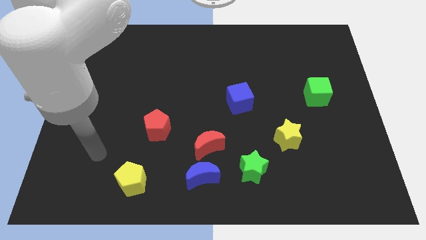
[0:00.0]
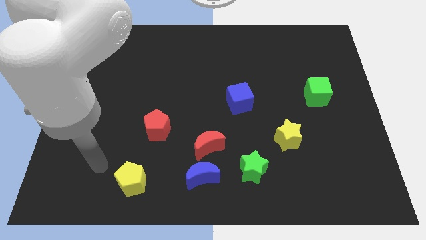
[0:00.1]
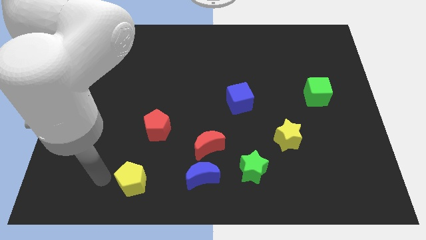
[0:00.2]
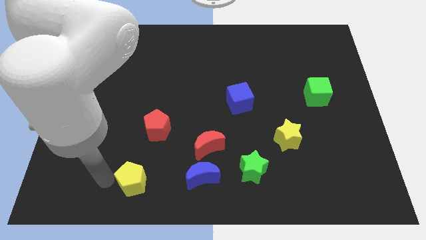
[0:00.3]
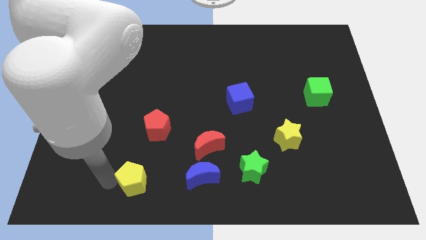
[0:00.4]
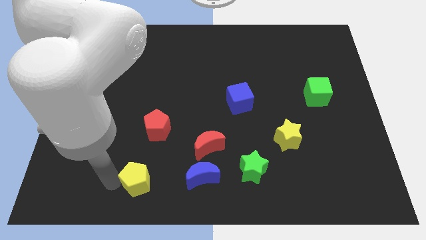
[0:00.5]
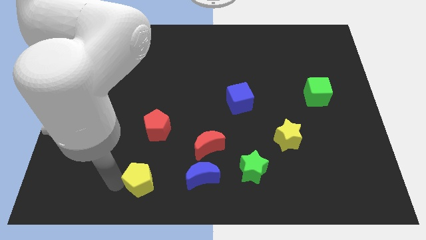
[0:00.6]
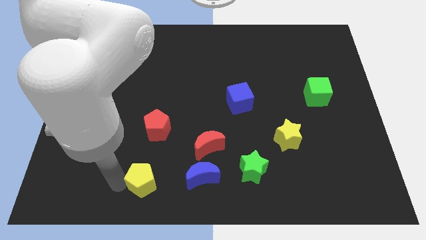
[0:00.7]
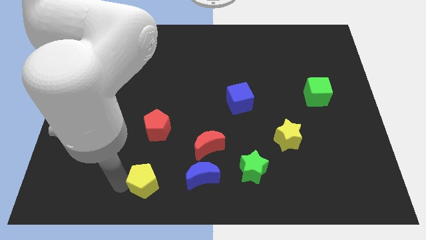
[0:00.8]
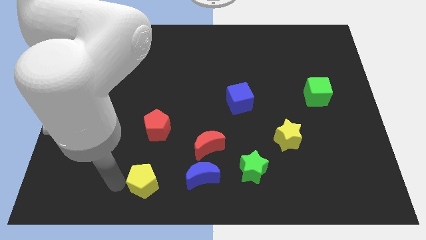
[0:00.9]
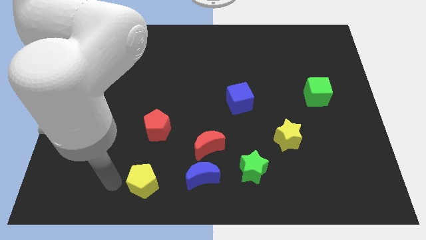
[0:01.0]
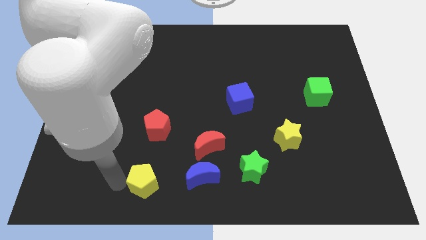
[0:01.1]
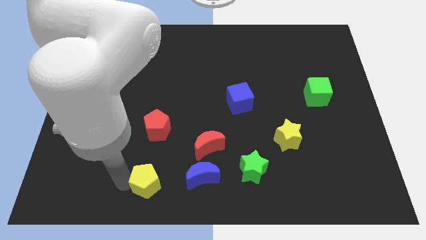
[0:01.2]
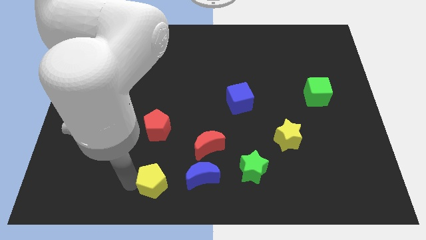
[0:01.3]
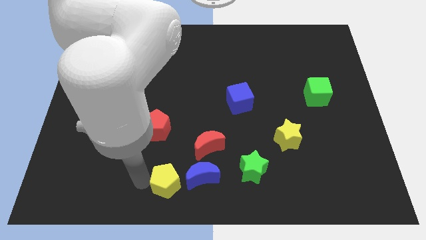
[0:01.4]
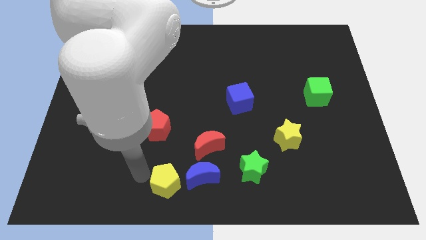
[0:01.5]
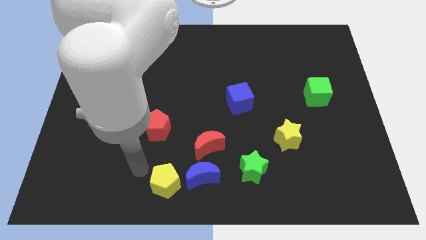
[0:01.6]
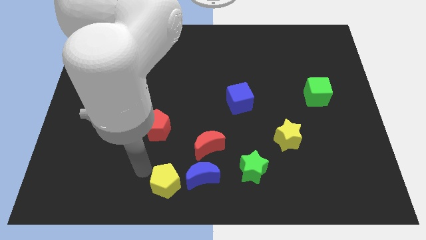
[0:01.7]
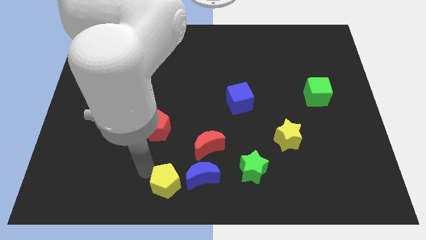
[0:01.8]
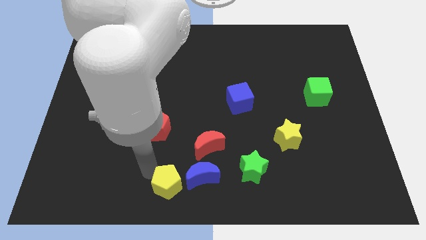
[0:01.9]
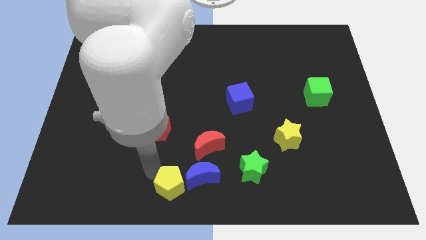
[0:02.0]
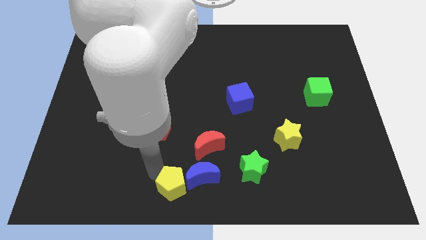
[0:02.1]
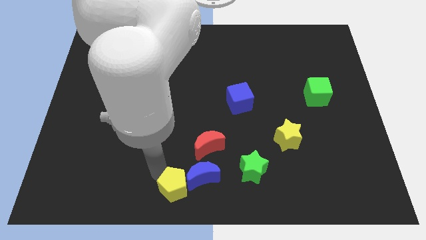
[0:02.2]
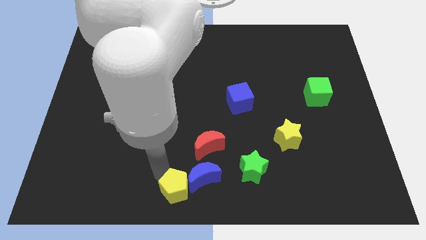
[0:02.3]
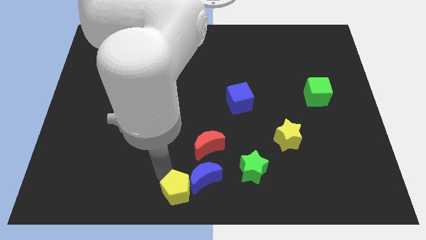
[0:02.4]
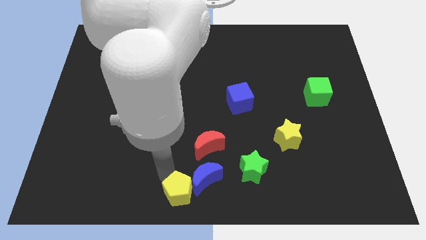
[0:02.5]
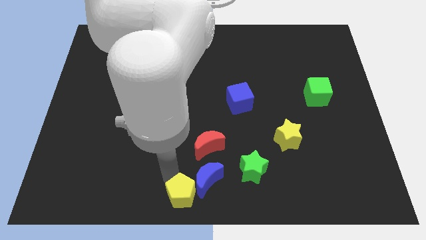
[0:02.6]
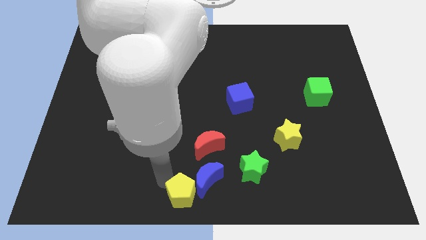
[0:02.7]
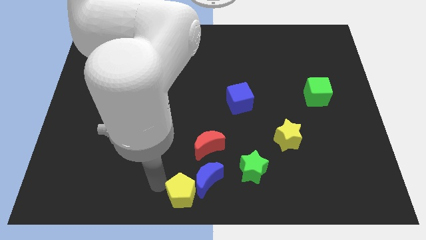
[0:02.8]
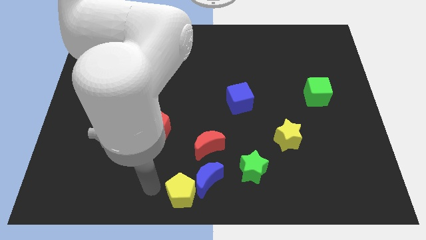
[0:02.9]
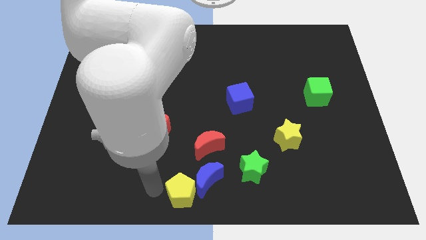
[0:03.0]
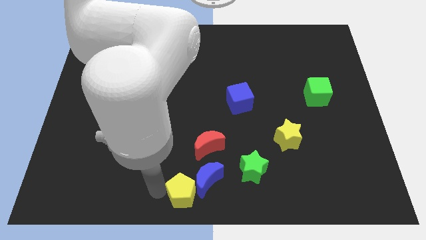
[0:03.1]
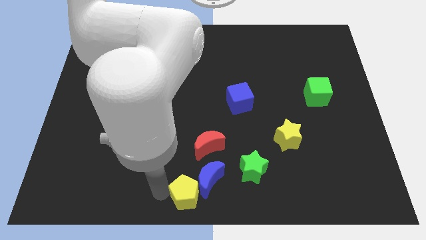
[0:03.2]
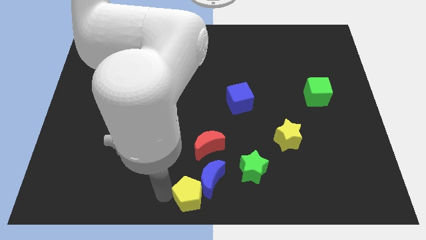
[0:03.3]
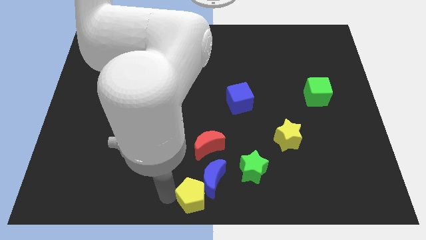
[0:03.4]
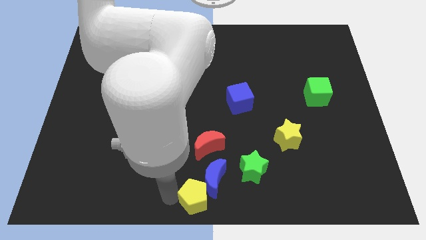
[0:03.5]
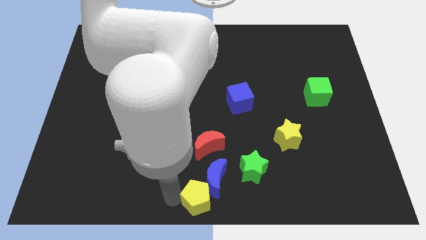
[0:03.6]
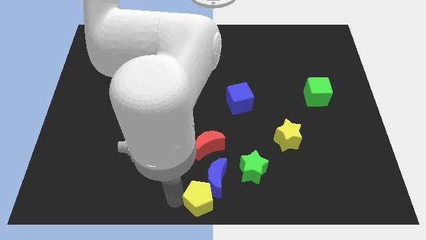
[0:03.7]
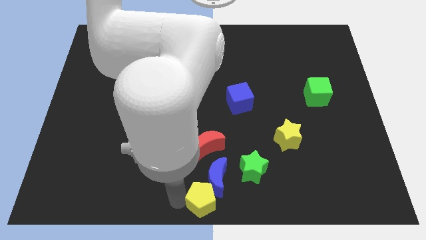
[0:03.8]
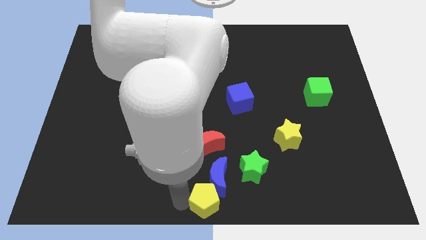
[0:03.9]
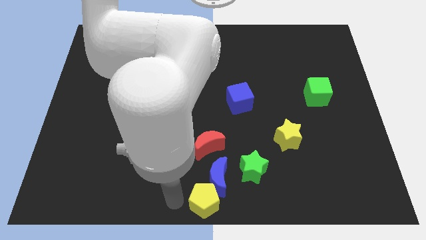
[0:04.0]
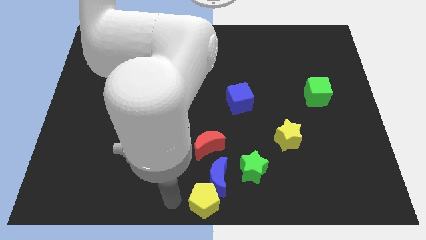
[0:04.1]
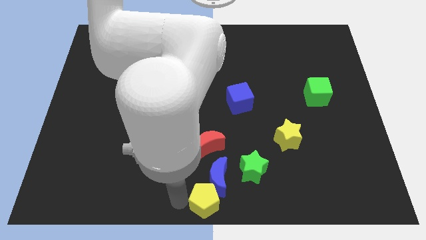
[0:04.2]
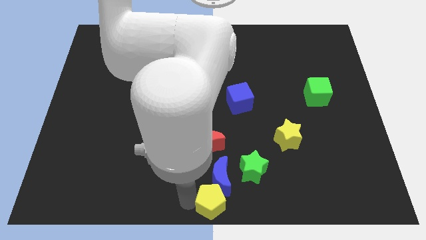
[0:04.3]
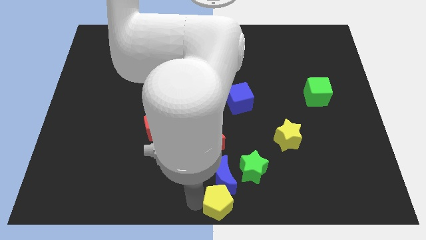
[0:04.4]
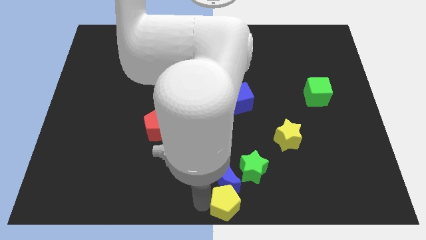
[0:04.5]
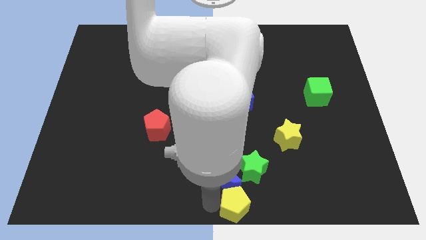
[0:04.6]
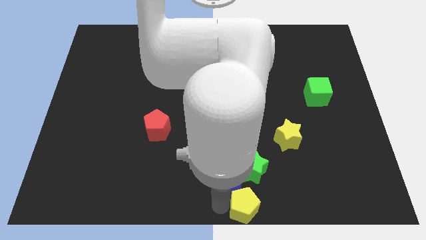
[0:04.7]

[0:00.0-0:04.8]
push the yellow pentagon to the right

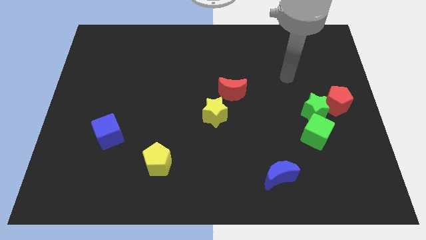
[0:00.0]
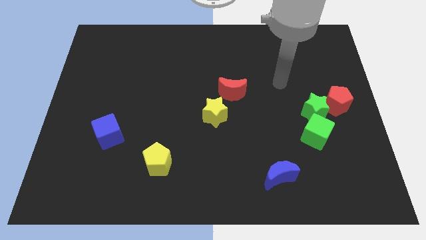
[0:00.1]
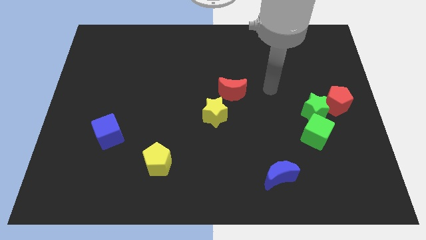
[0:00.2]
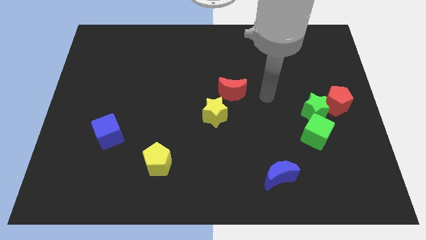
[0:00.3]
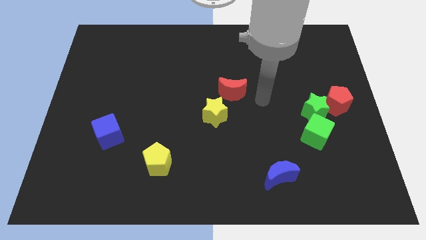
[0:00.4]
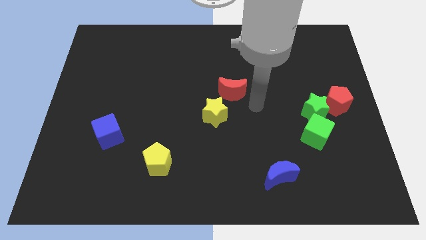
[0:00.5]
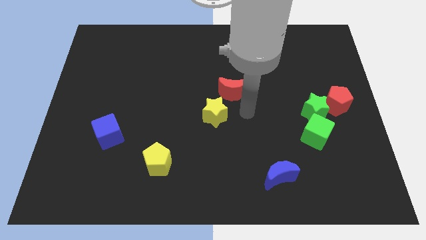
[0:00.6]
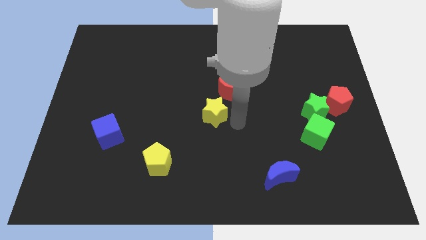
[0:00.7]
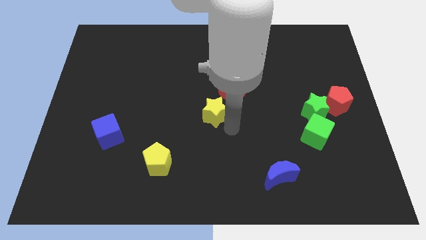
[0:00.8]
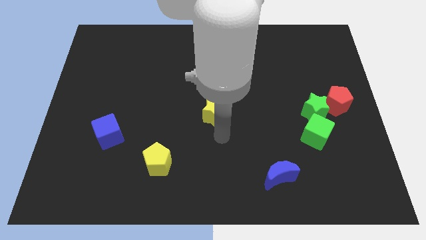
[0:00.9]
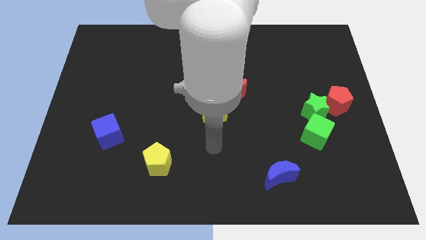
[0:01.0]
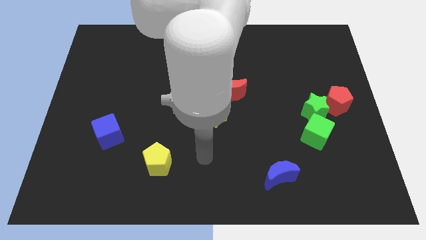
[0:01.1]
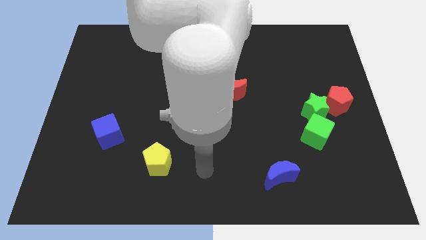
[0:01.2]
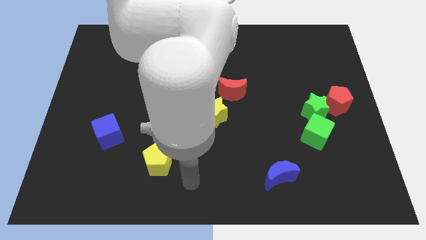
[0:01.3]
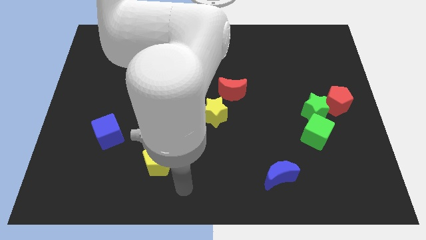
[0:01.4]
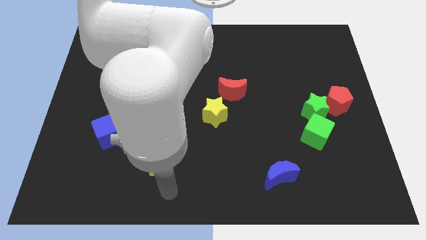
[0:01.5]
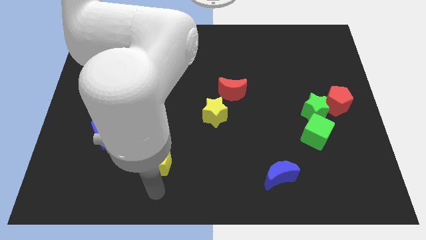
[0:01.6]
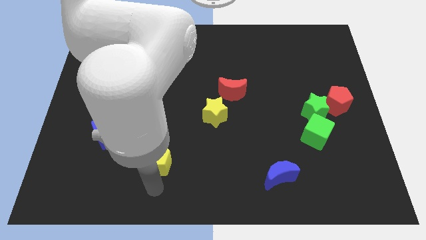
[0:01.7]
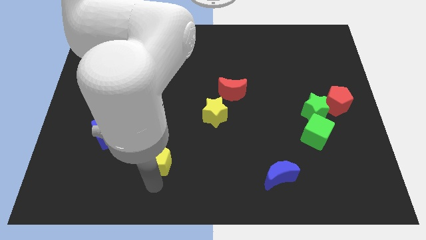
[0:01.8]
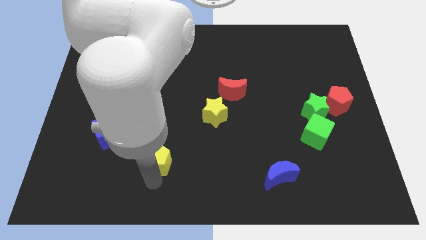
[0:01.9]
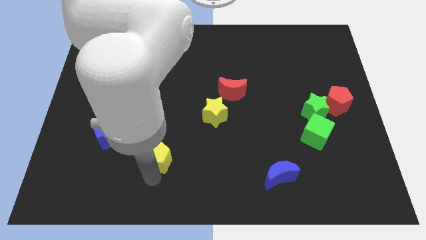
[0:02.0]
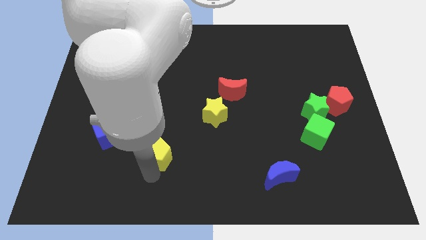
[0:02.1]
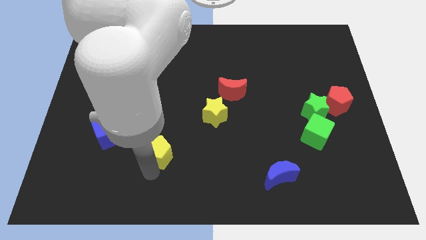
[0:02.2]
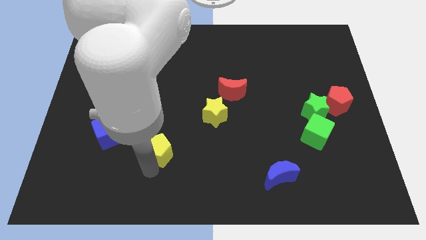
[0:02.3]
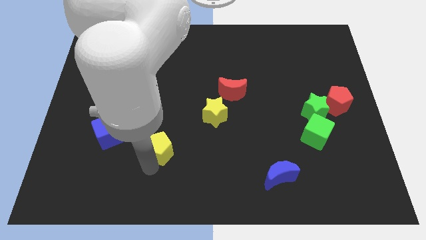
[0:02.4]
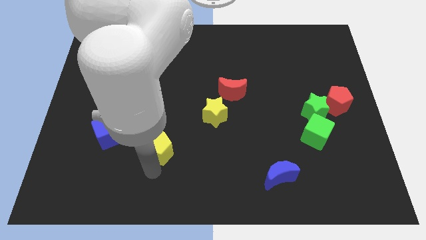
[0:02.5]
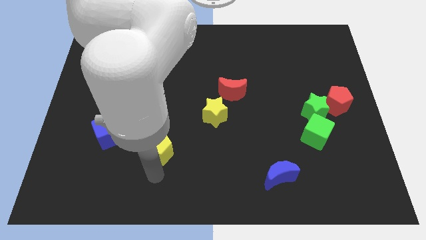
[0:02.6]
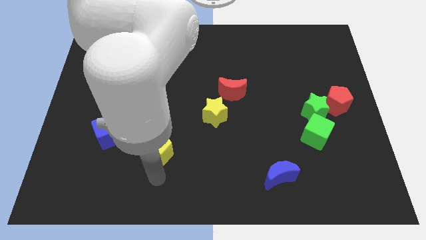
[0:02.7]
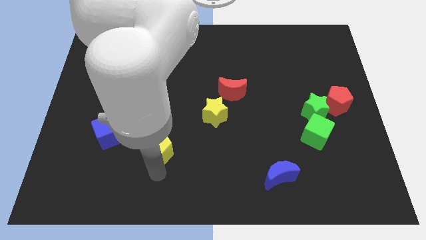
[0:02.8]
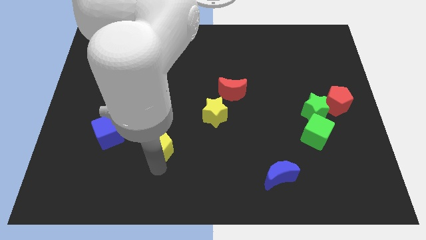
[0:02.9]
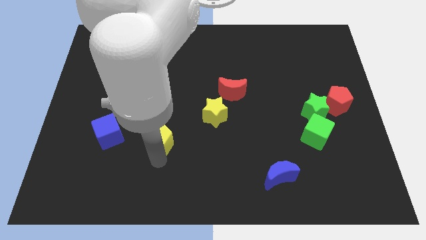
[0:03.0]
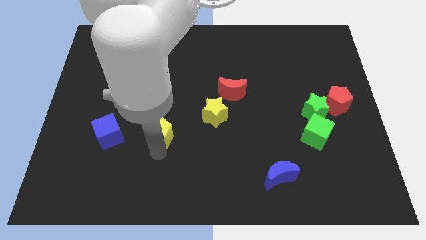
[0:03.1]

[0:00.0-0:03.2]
move the yellow pentagon slightly up

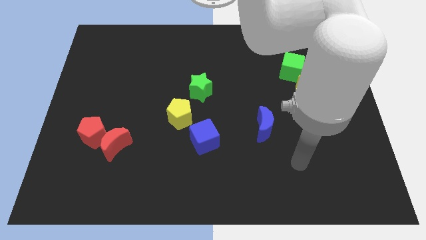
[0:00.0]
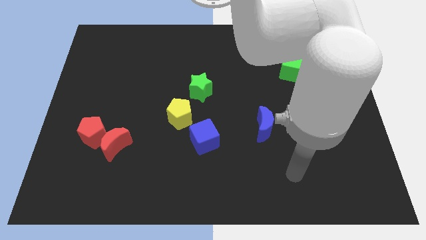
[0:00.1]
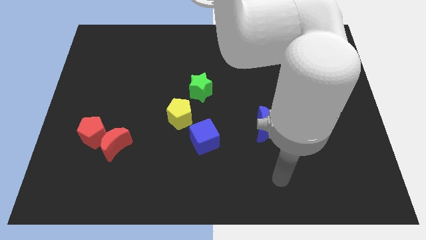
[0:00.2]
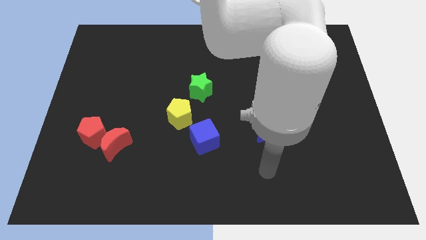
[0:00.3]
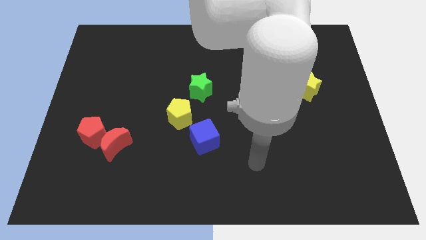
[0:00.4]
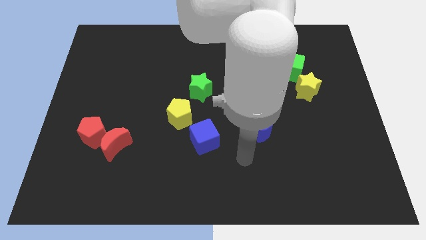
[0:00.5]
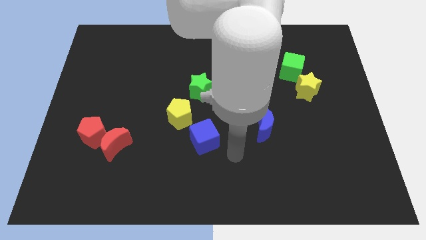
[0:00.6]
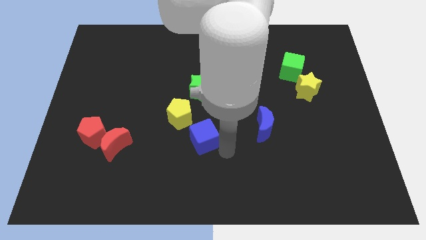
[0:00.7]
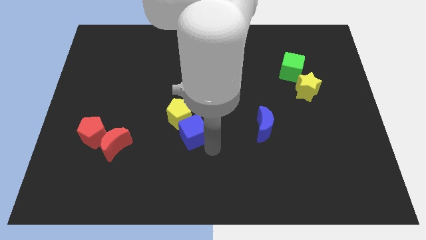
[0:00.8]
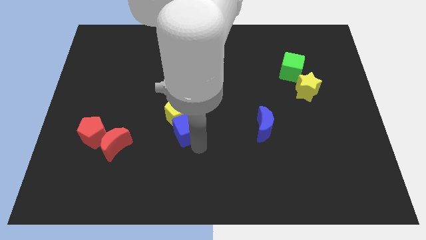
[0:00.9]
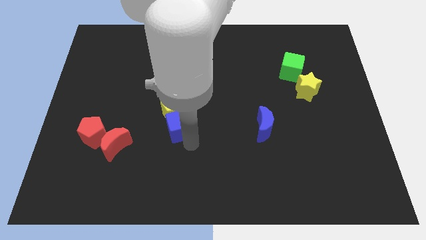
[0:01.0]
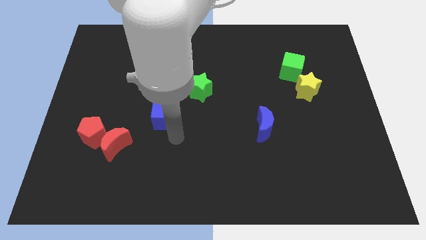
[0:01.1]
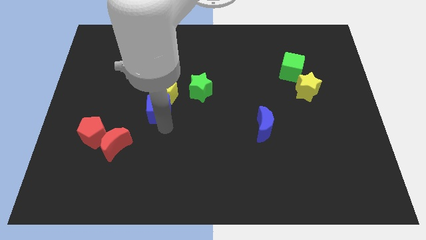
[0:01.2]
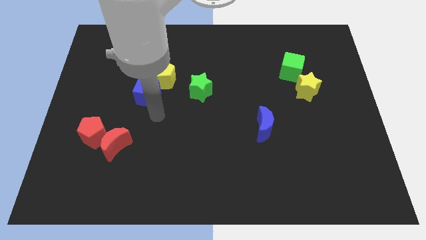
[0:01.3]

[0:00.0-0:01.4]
slide the yellow pentagon up a little
